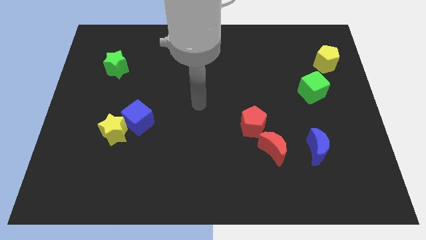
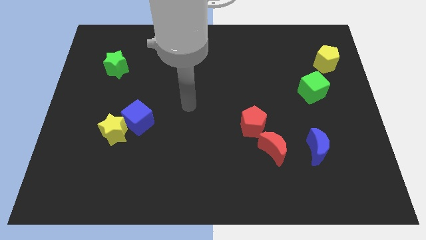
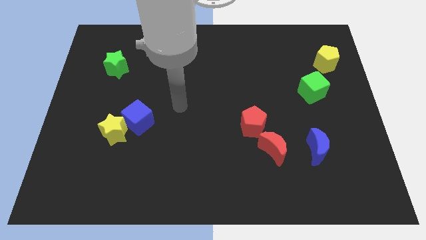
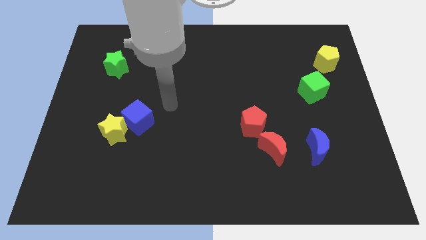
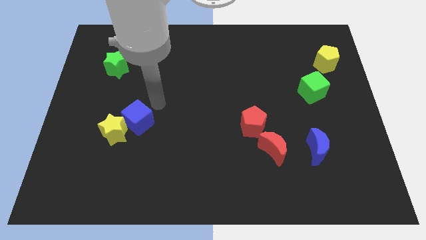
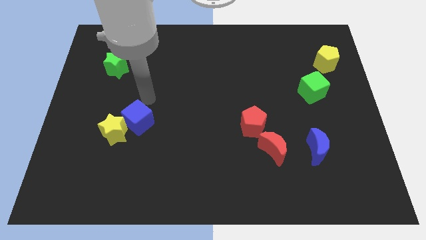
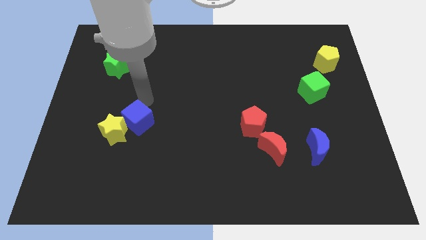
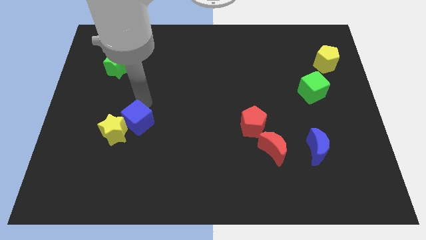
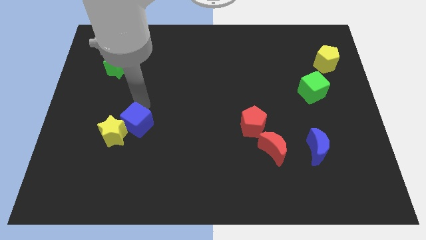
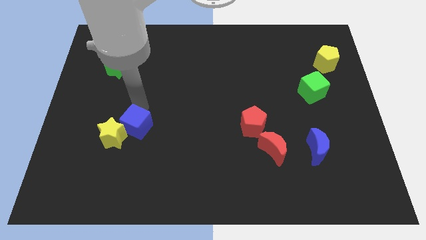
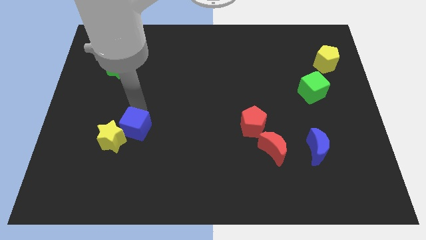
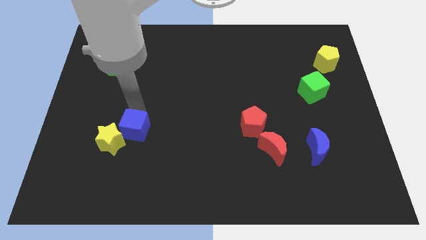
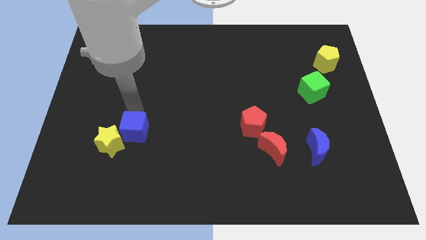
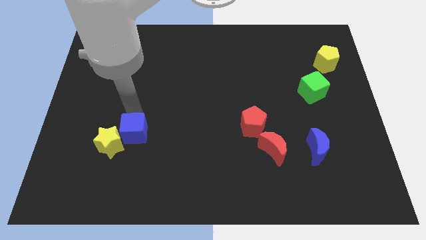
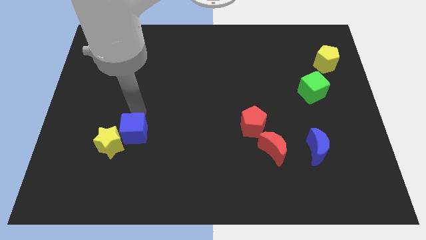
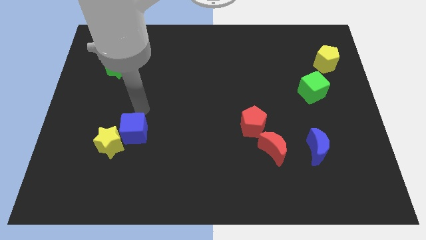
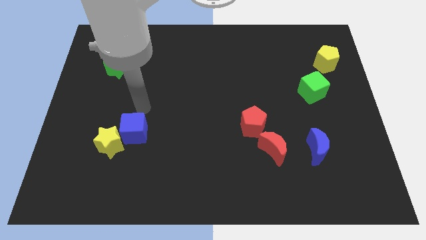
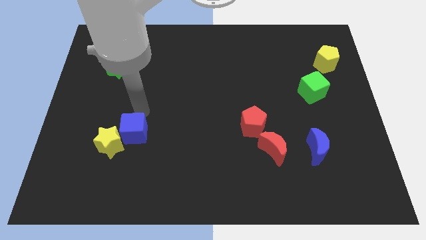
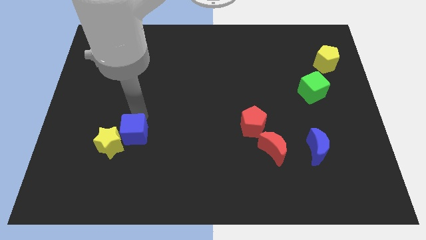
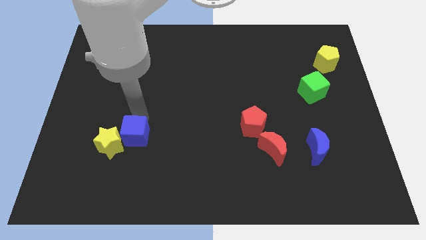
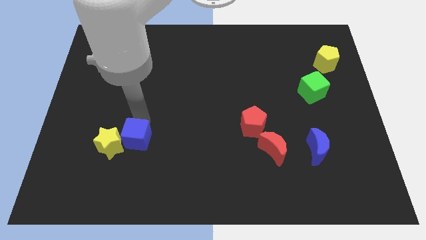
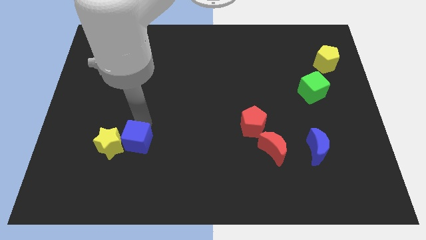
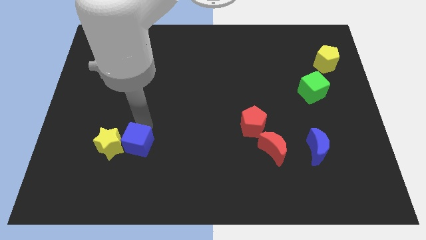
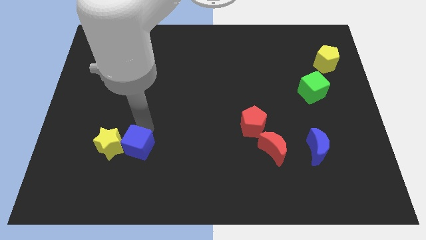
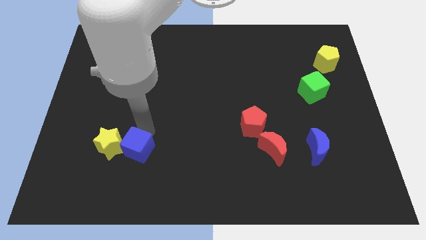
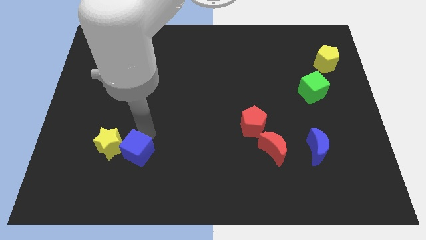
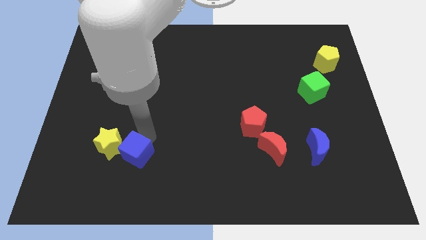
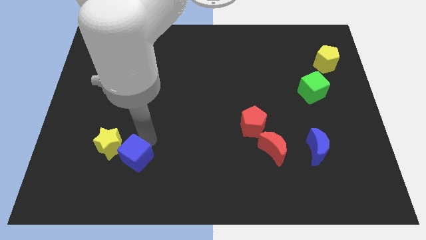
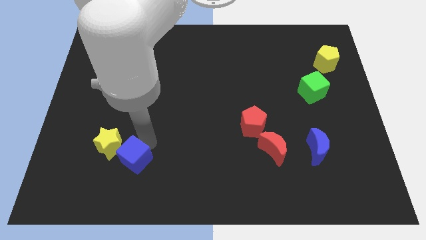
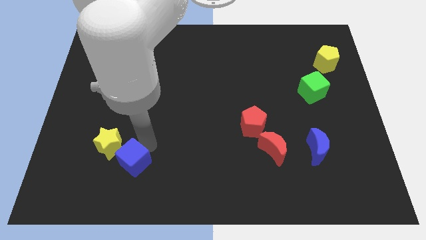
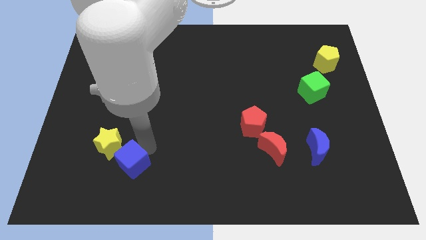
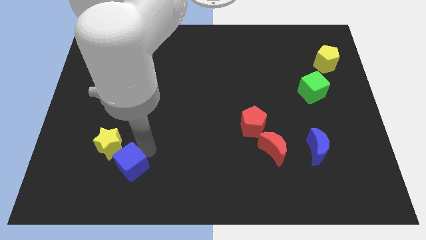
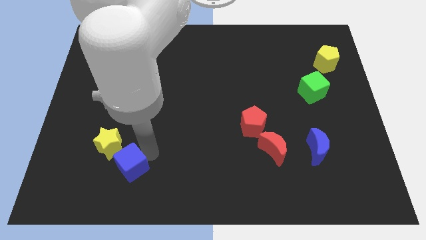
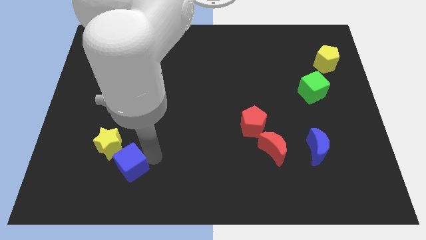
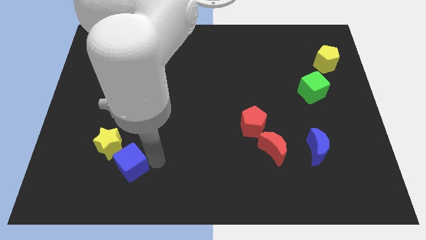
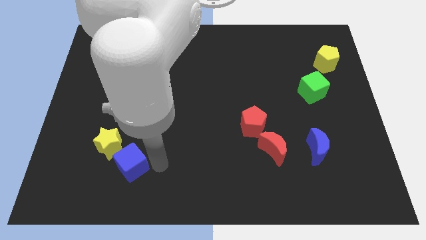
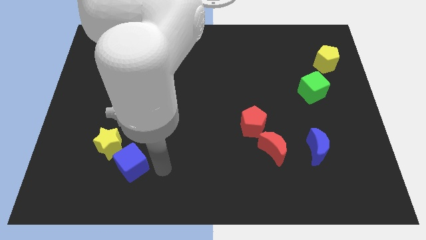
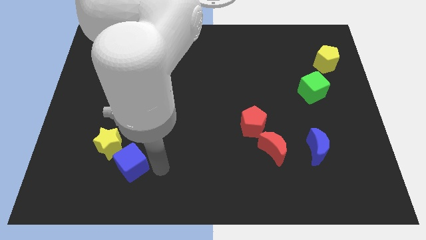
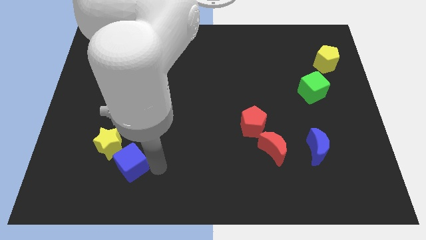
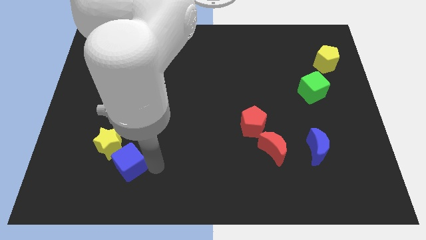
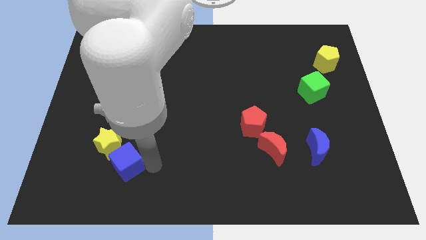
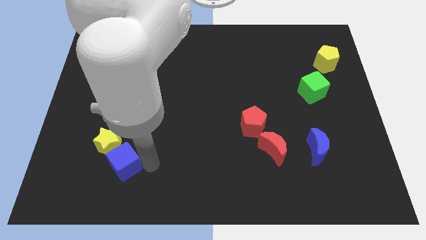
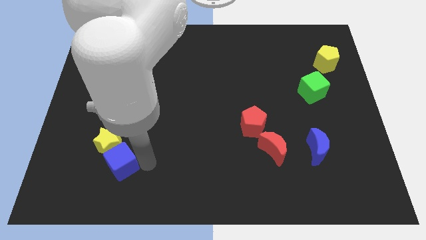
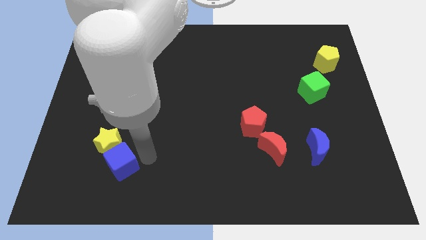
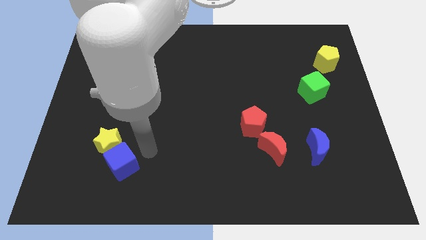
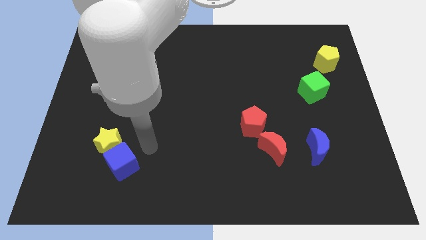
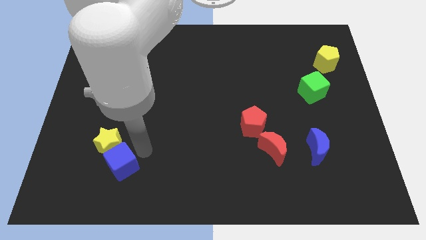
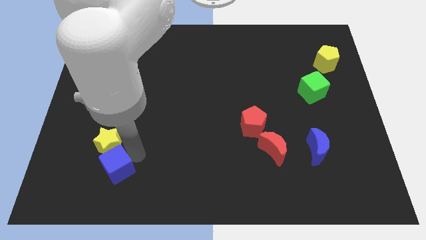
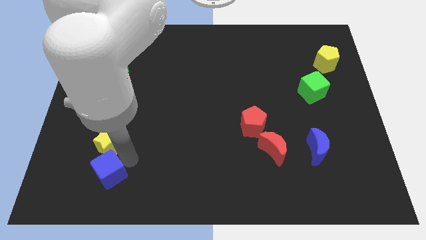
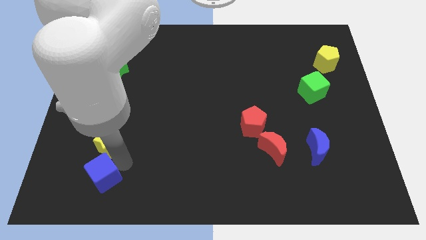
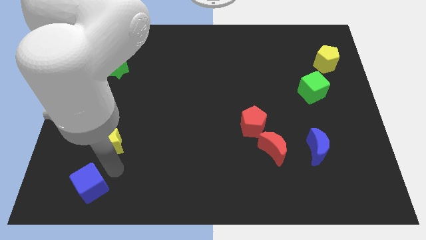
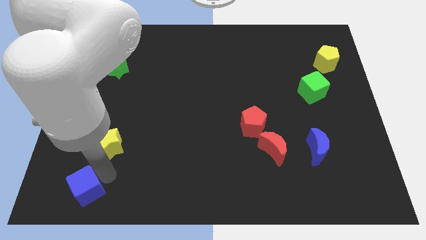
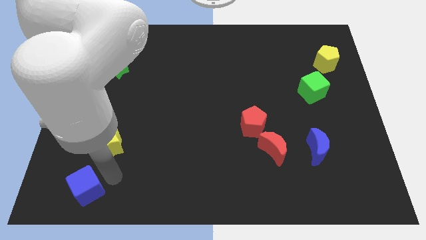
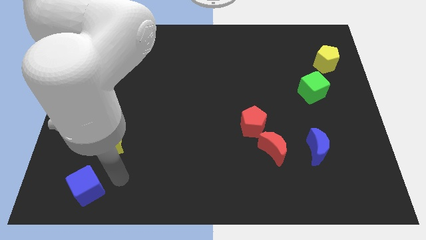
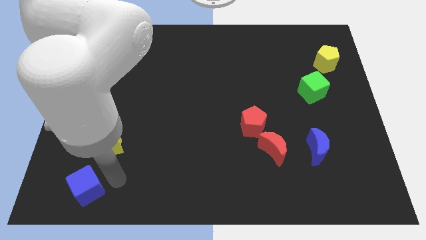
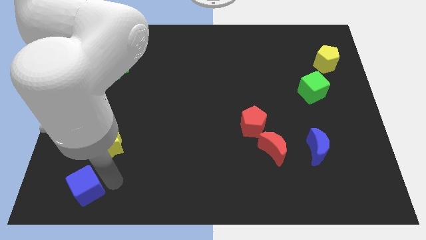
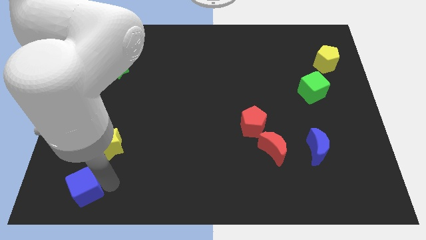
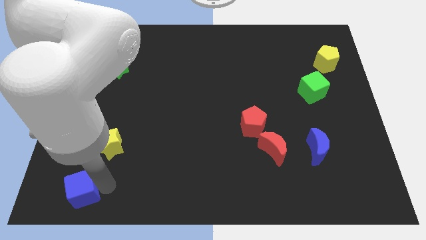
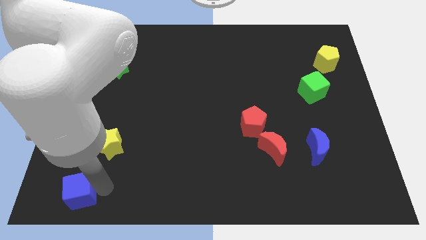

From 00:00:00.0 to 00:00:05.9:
push the blue cube to the bottom left
